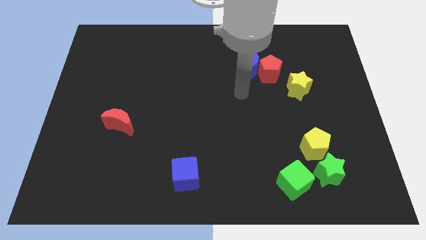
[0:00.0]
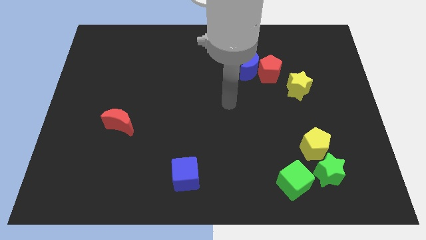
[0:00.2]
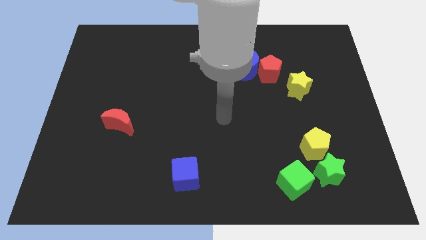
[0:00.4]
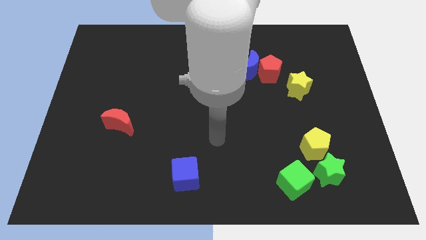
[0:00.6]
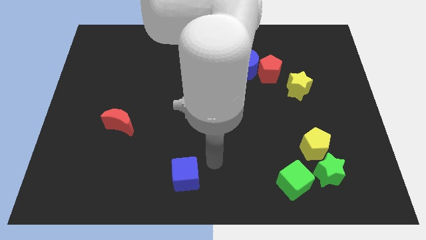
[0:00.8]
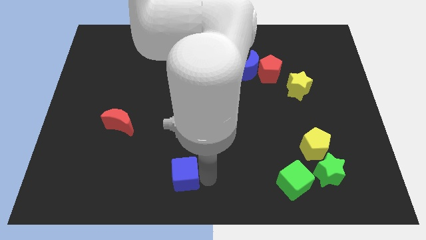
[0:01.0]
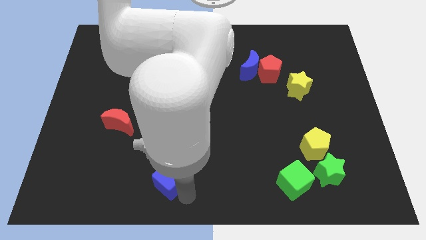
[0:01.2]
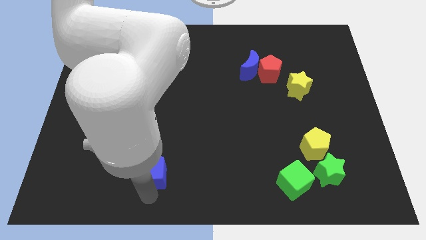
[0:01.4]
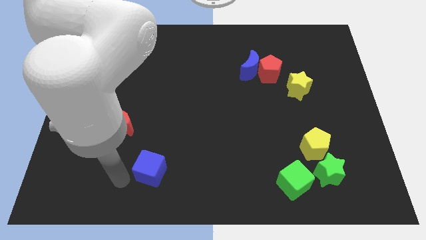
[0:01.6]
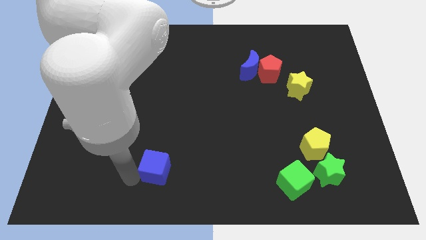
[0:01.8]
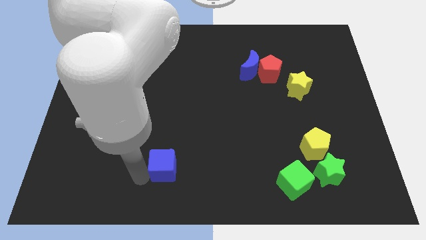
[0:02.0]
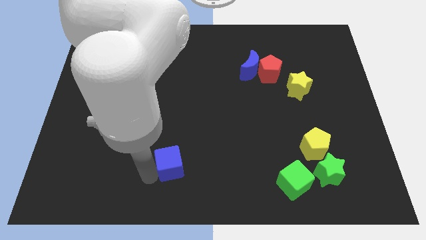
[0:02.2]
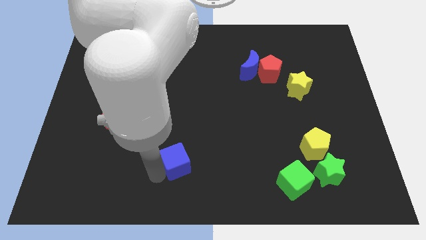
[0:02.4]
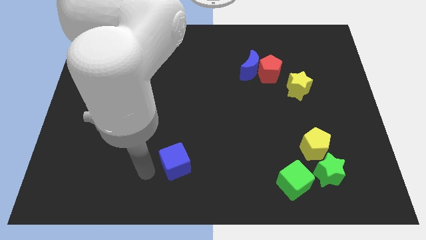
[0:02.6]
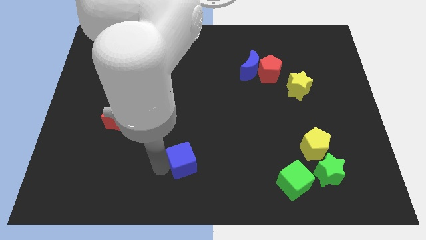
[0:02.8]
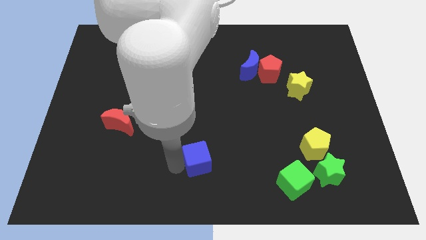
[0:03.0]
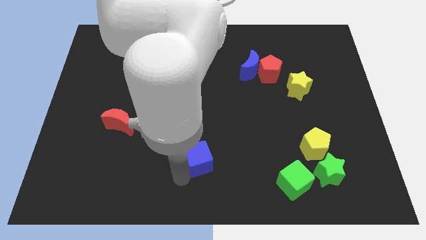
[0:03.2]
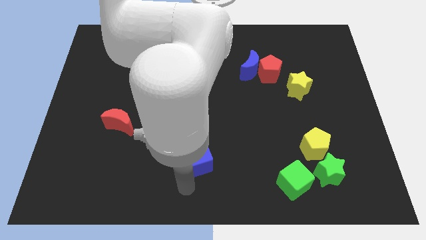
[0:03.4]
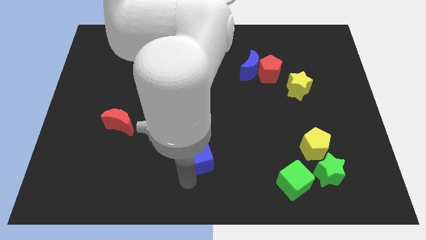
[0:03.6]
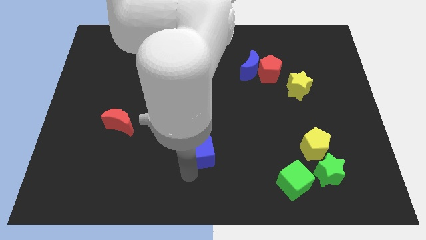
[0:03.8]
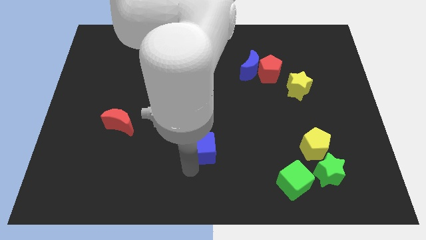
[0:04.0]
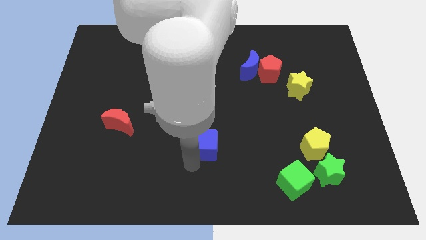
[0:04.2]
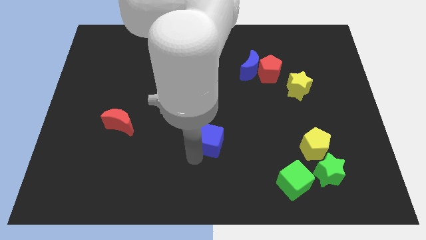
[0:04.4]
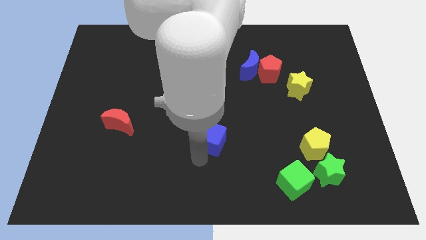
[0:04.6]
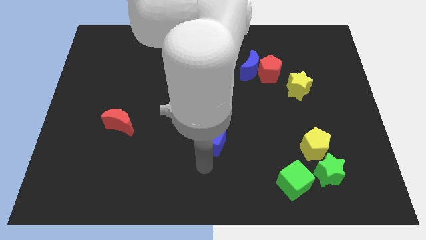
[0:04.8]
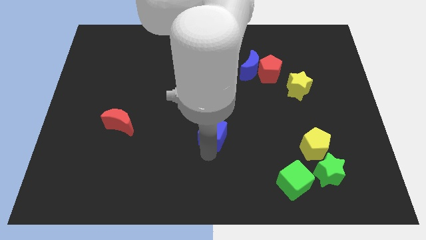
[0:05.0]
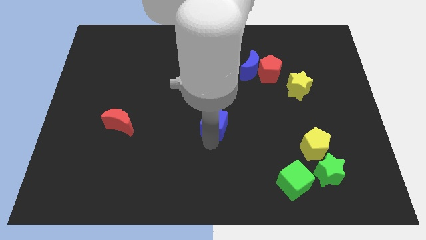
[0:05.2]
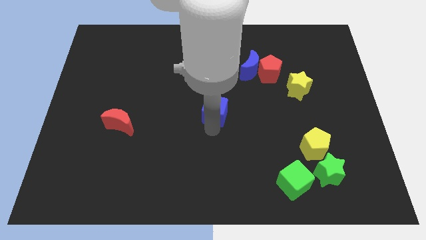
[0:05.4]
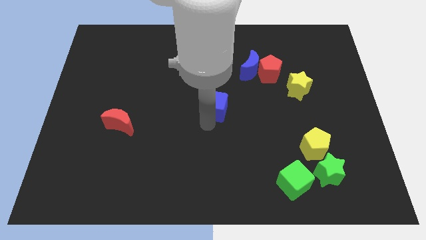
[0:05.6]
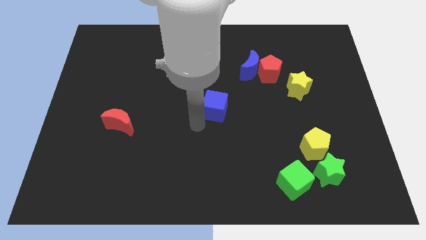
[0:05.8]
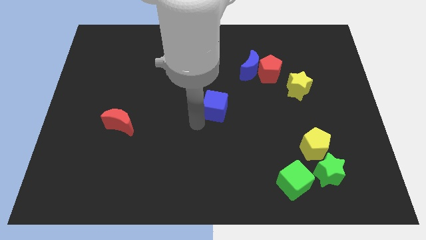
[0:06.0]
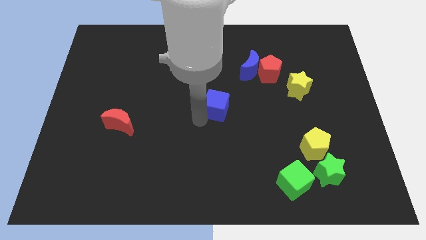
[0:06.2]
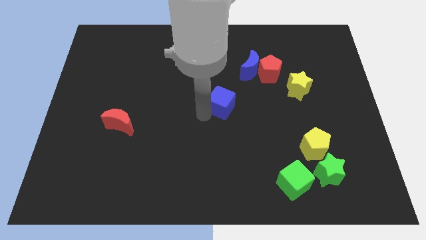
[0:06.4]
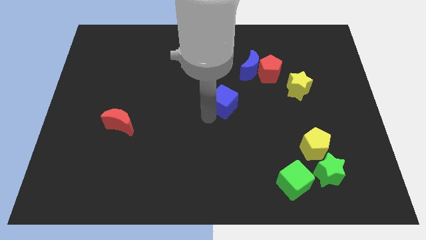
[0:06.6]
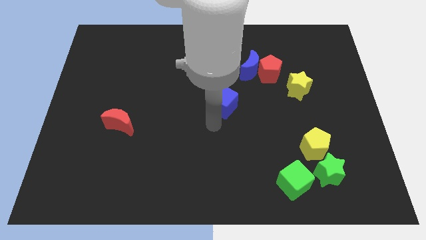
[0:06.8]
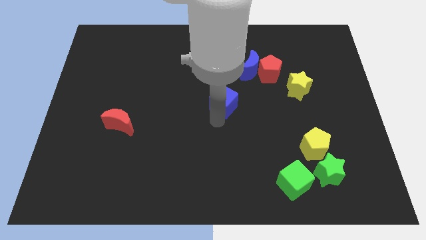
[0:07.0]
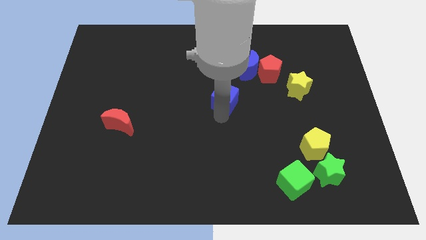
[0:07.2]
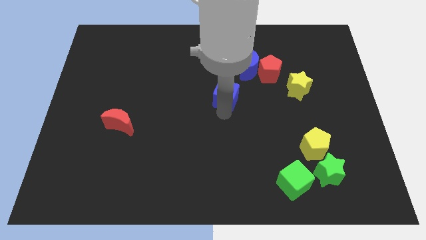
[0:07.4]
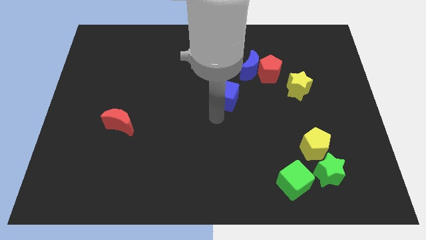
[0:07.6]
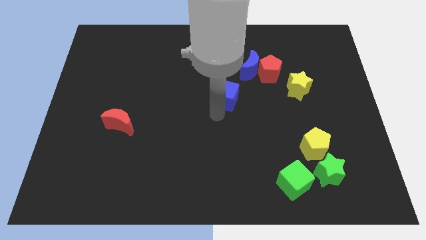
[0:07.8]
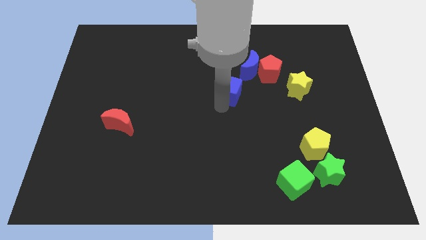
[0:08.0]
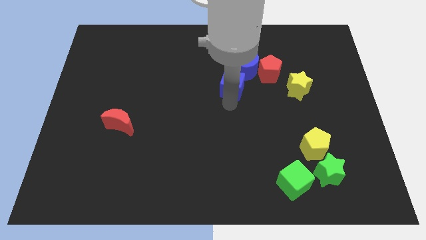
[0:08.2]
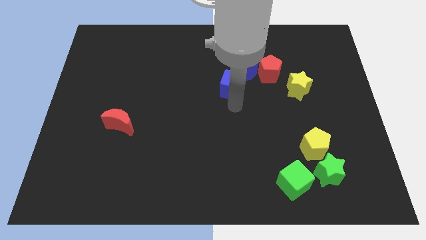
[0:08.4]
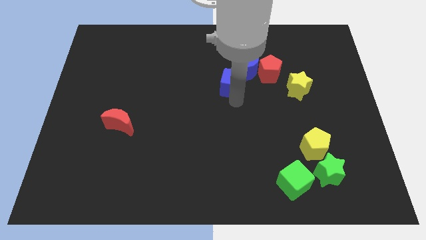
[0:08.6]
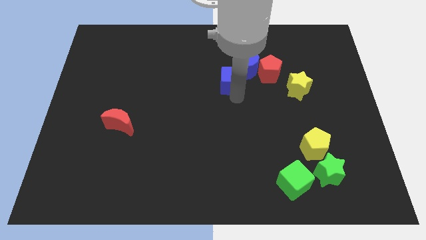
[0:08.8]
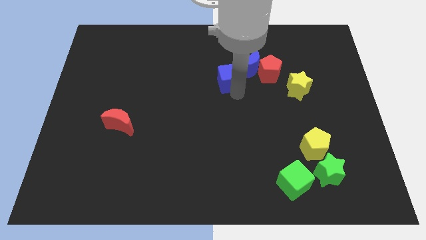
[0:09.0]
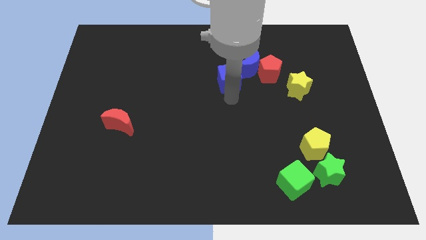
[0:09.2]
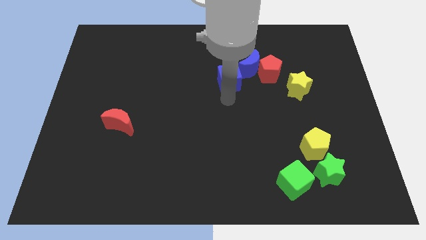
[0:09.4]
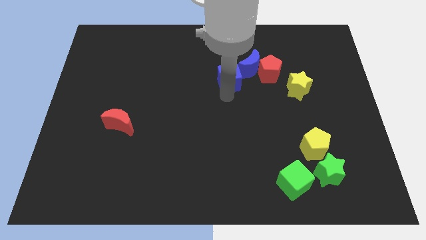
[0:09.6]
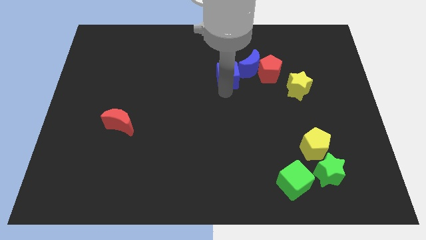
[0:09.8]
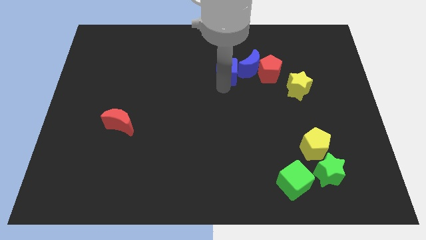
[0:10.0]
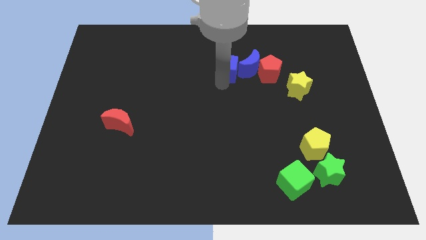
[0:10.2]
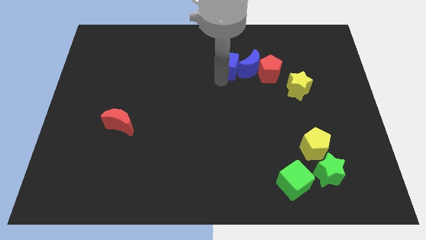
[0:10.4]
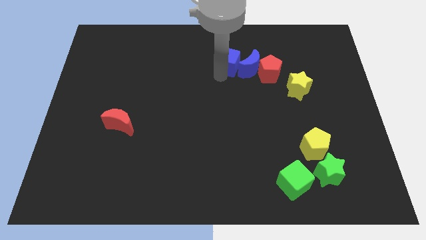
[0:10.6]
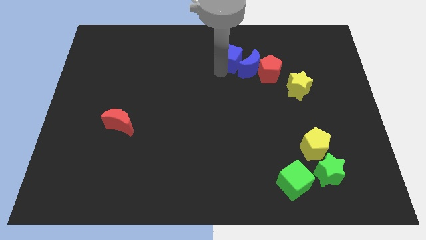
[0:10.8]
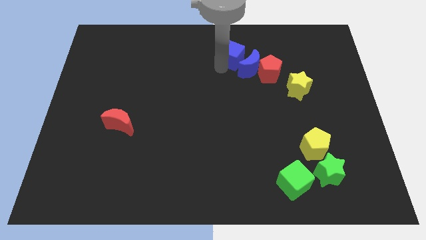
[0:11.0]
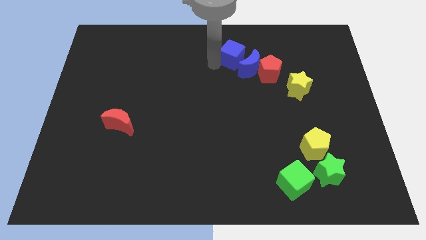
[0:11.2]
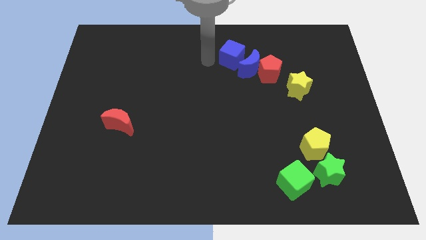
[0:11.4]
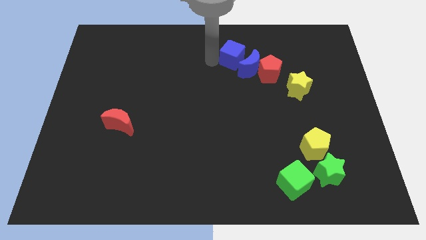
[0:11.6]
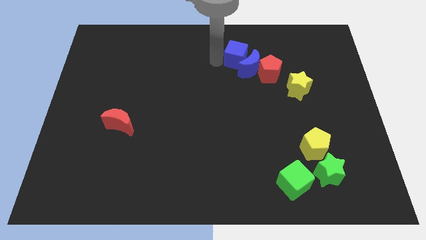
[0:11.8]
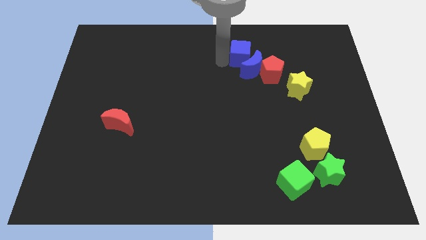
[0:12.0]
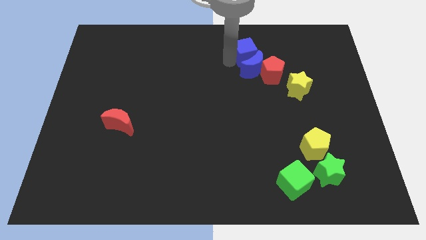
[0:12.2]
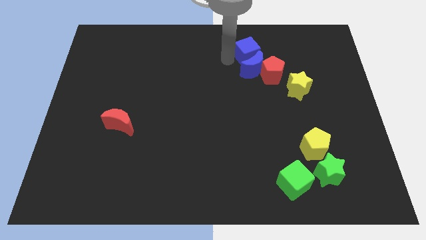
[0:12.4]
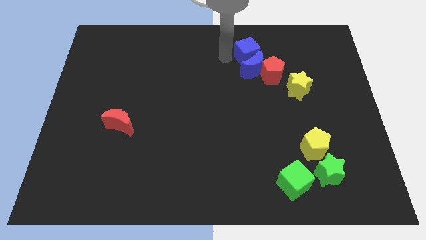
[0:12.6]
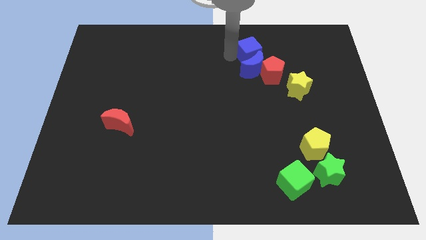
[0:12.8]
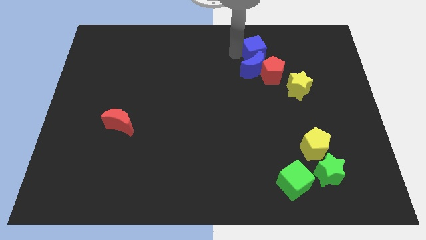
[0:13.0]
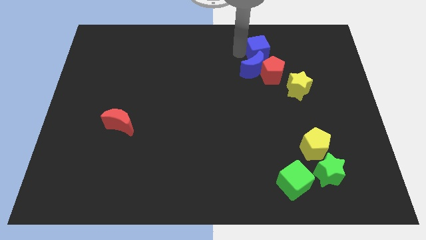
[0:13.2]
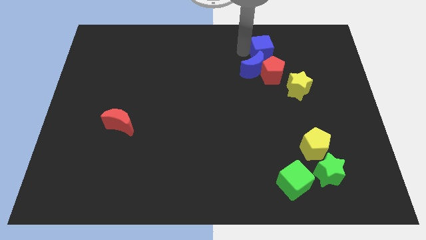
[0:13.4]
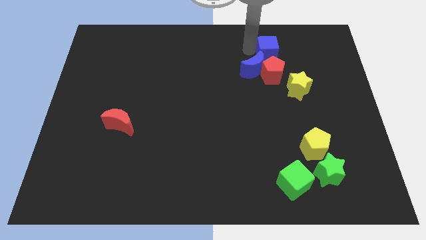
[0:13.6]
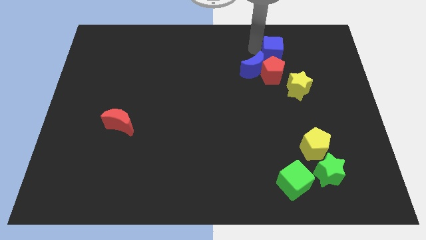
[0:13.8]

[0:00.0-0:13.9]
slide the blue cube to the top right side of the red pentagon
